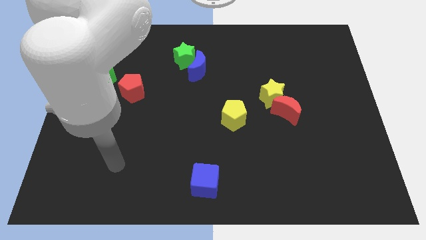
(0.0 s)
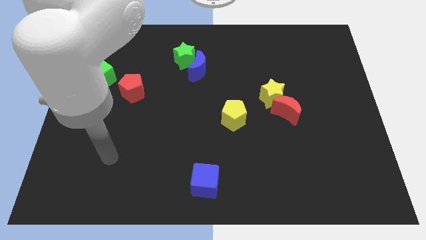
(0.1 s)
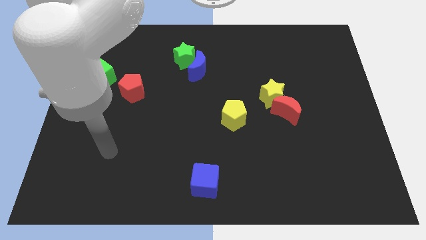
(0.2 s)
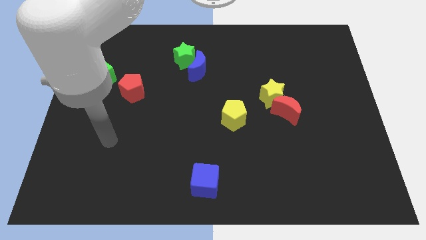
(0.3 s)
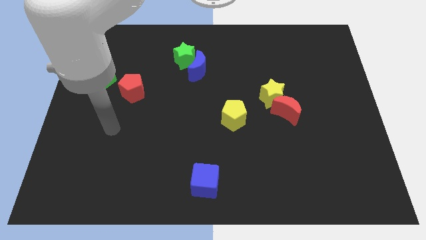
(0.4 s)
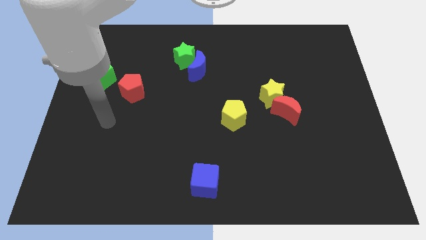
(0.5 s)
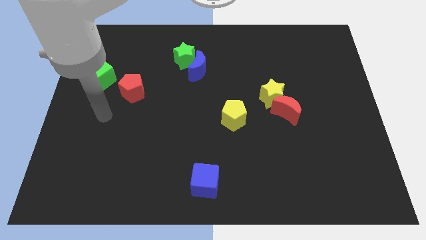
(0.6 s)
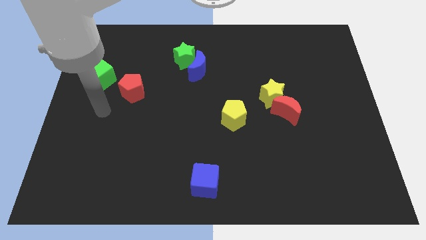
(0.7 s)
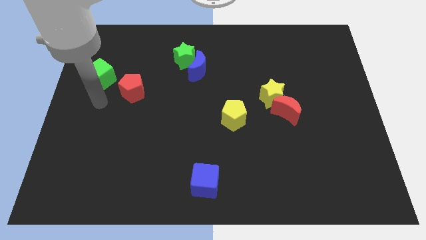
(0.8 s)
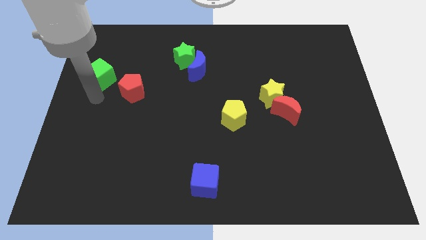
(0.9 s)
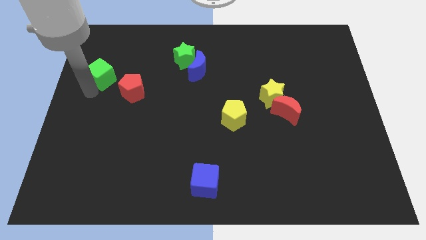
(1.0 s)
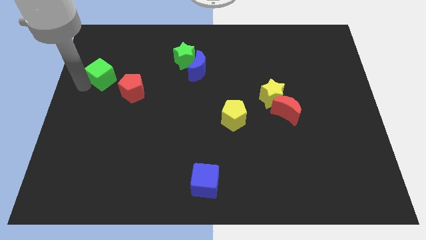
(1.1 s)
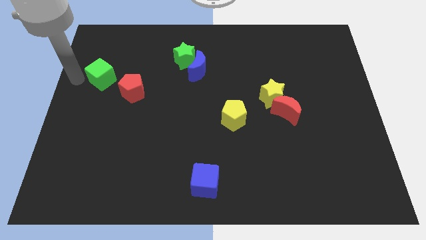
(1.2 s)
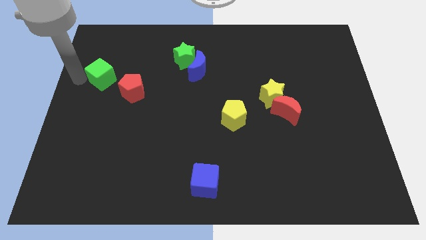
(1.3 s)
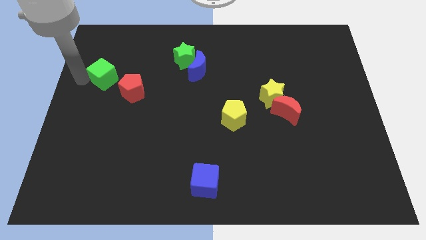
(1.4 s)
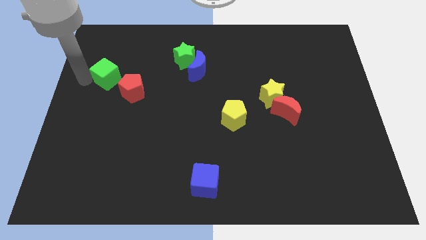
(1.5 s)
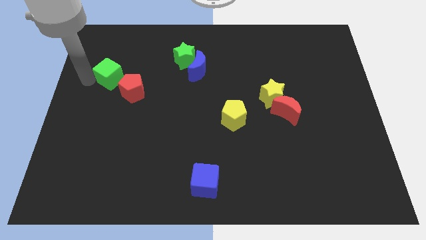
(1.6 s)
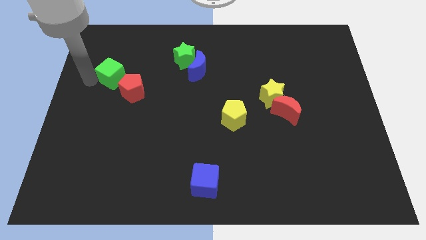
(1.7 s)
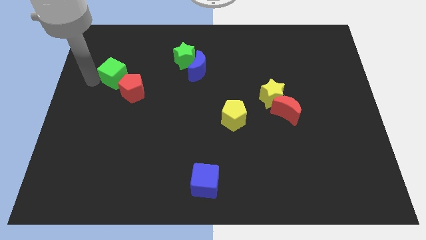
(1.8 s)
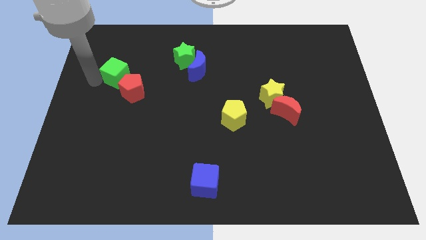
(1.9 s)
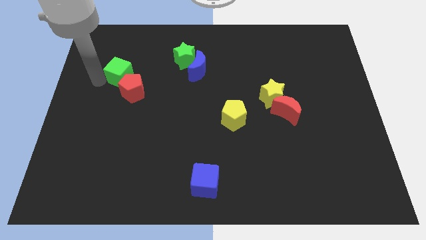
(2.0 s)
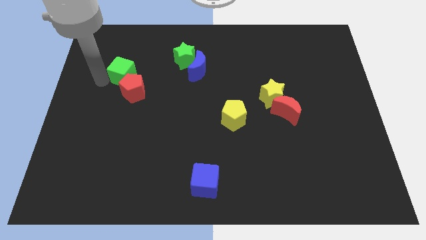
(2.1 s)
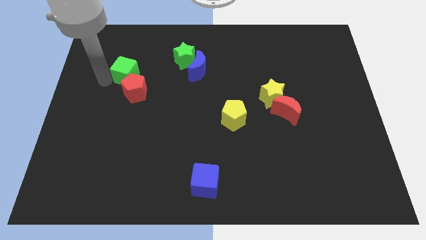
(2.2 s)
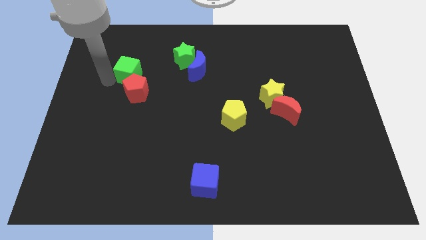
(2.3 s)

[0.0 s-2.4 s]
slightly move the green cube to the right

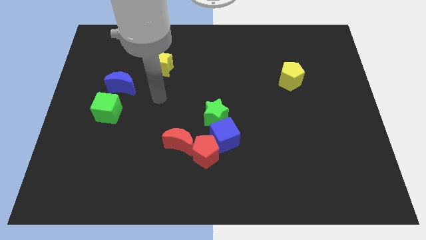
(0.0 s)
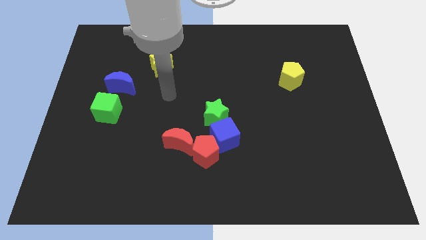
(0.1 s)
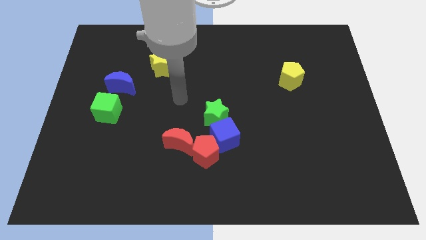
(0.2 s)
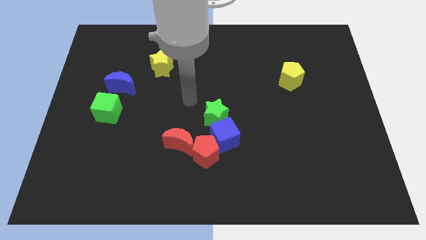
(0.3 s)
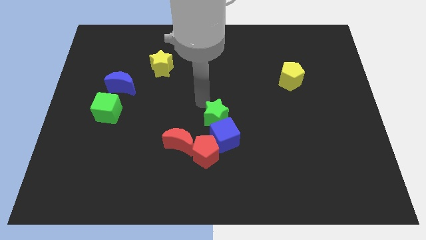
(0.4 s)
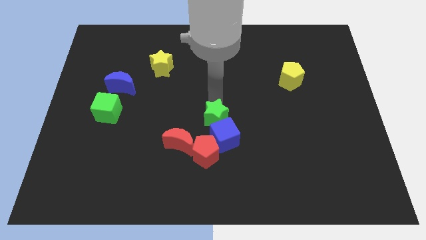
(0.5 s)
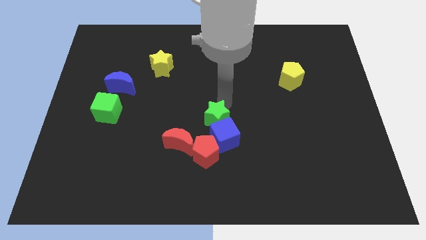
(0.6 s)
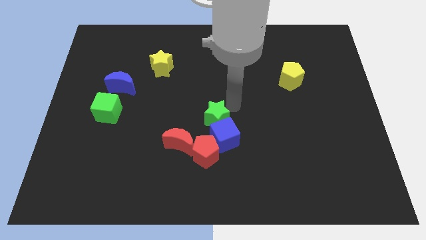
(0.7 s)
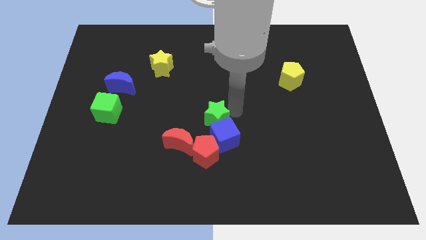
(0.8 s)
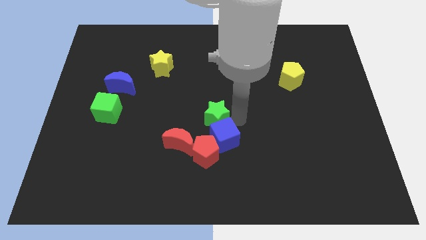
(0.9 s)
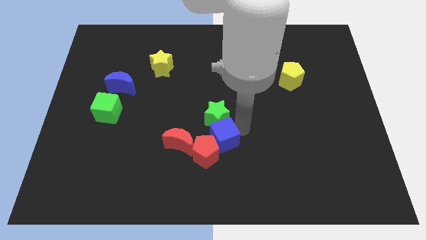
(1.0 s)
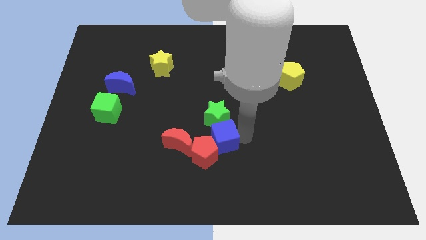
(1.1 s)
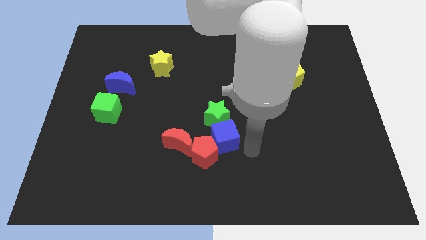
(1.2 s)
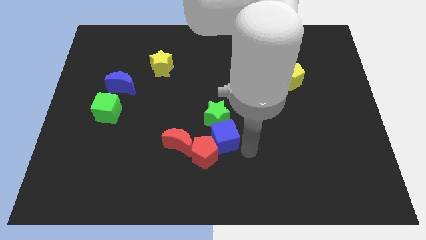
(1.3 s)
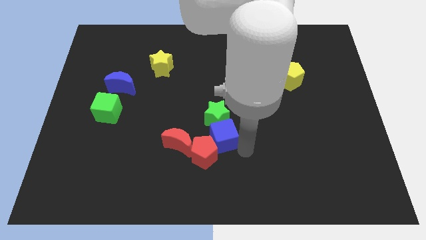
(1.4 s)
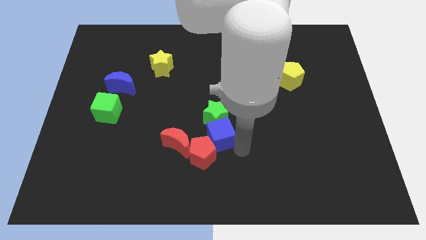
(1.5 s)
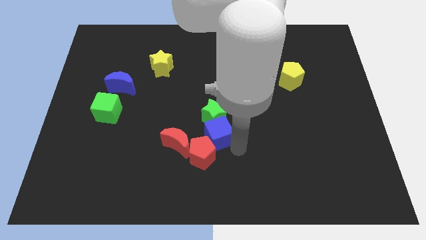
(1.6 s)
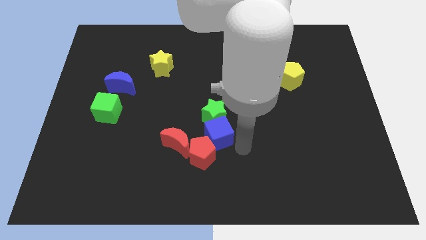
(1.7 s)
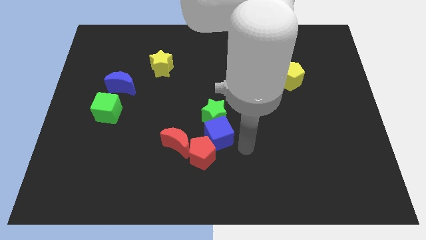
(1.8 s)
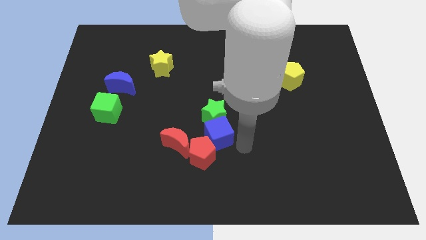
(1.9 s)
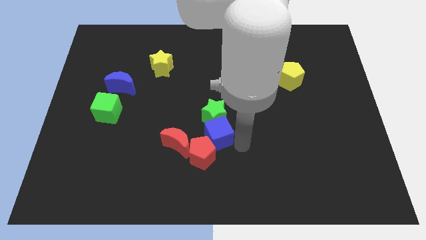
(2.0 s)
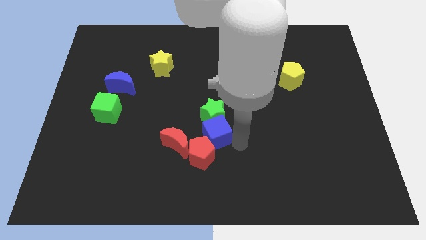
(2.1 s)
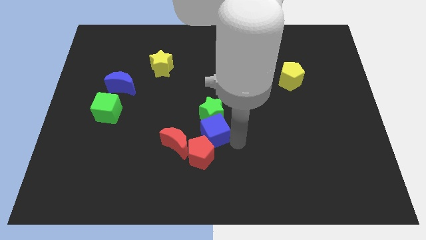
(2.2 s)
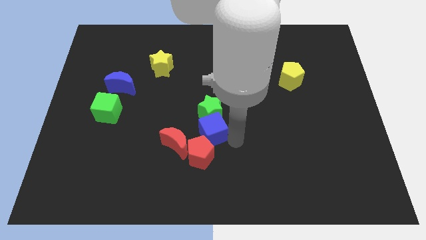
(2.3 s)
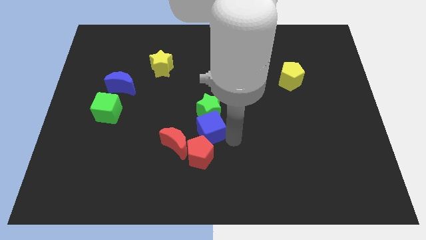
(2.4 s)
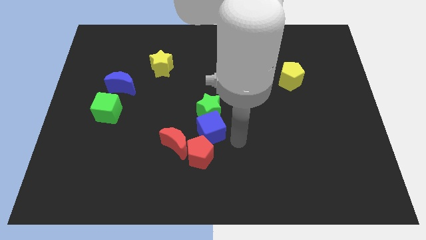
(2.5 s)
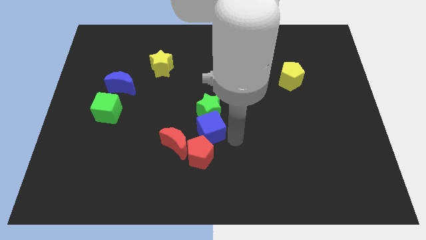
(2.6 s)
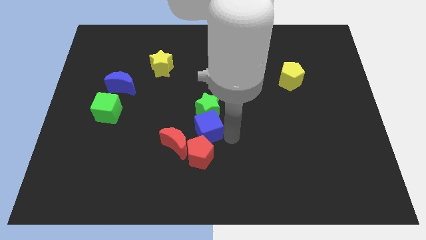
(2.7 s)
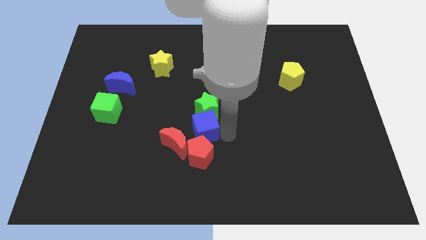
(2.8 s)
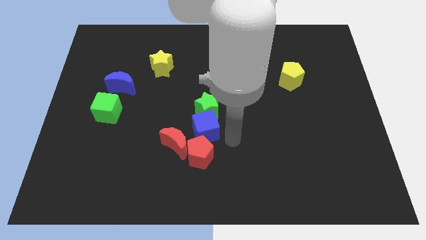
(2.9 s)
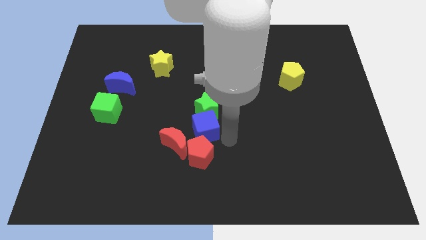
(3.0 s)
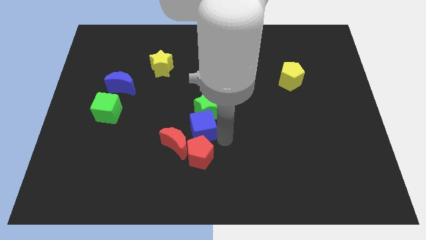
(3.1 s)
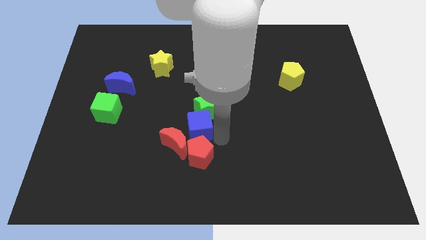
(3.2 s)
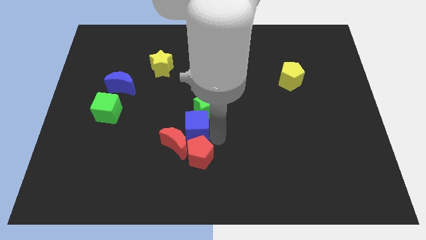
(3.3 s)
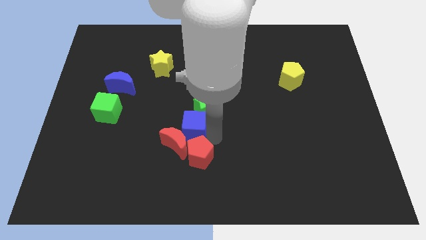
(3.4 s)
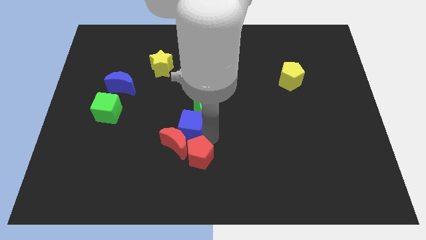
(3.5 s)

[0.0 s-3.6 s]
move the blue cube left somewhat

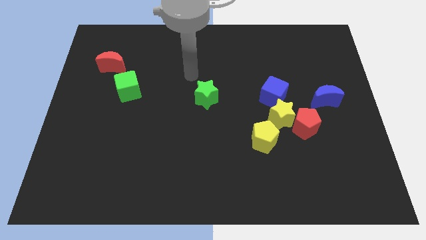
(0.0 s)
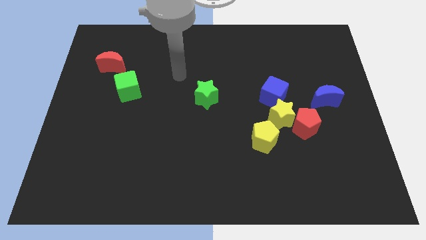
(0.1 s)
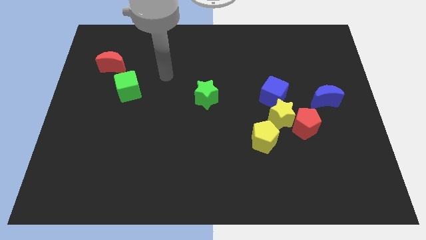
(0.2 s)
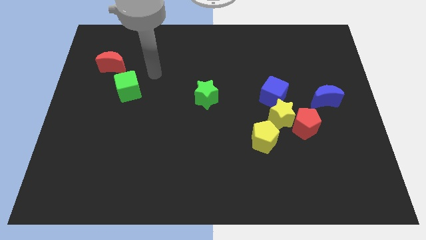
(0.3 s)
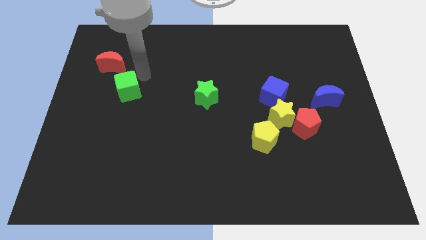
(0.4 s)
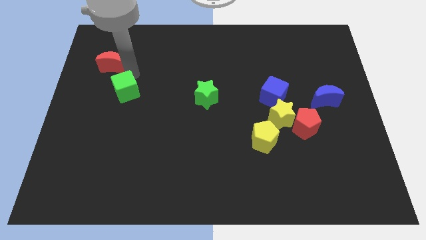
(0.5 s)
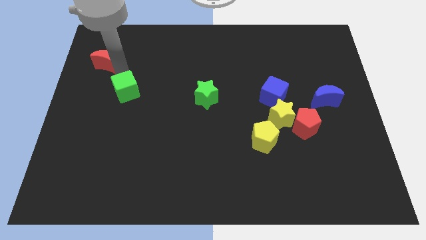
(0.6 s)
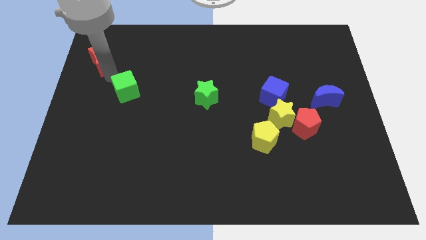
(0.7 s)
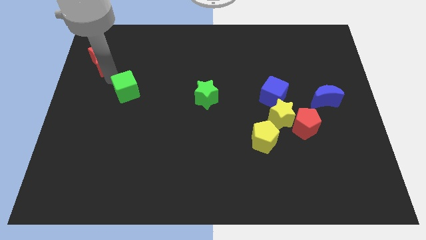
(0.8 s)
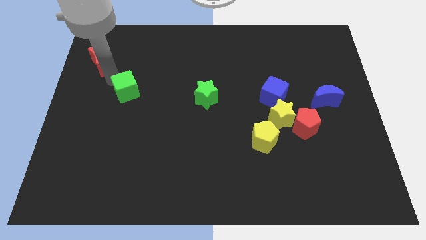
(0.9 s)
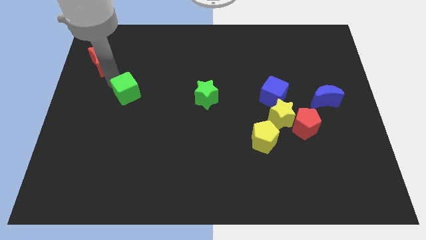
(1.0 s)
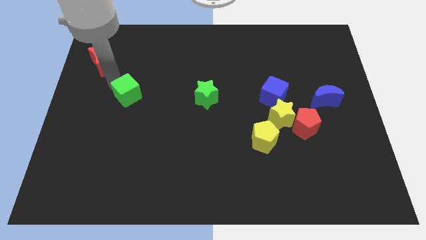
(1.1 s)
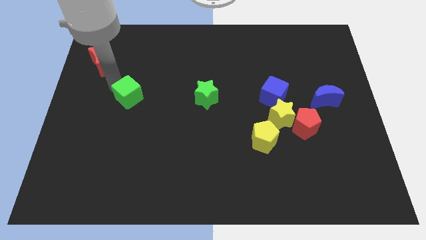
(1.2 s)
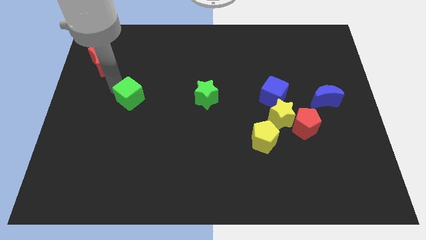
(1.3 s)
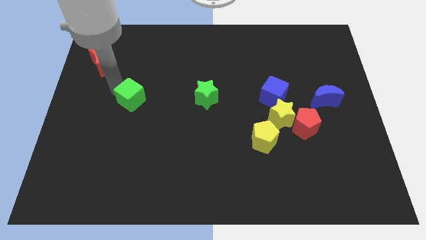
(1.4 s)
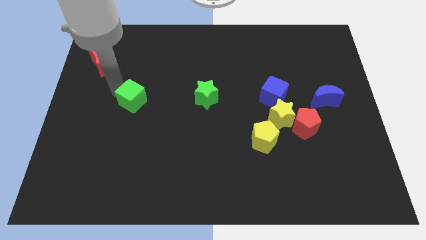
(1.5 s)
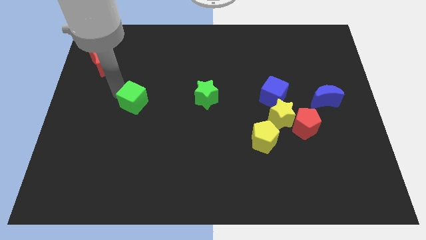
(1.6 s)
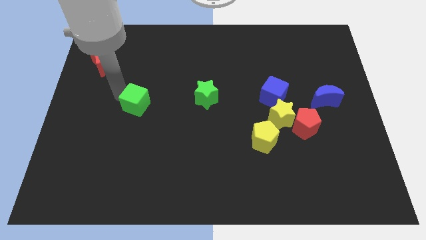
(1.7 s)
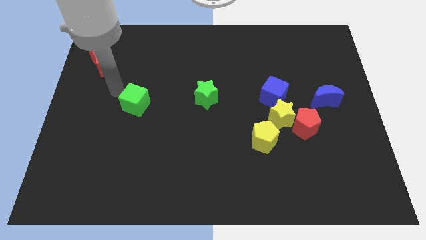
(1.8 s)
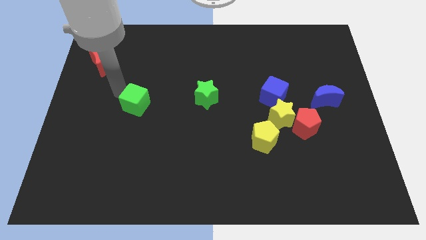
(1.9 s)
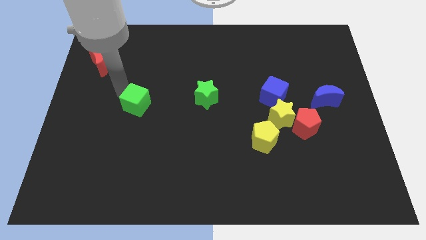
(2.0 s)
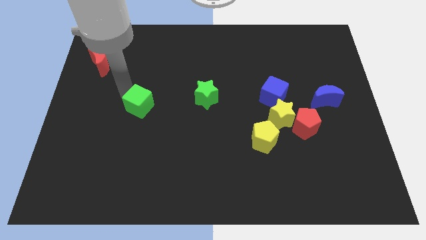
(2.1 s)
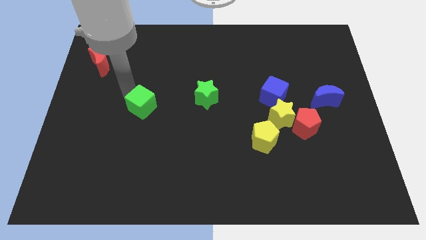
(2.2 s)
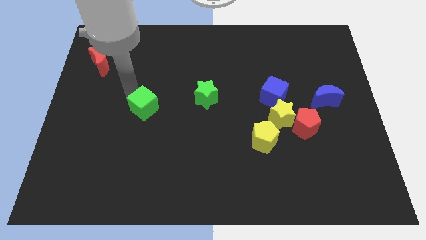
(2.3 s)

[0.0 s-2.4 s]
move the green cube down and to the right somewhat

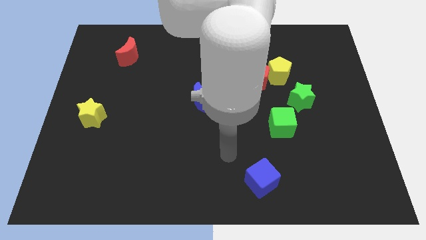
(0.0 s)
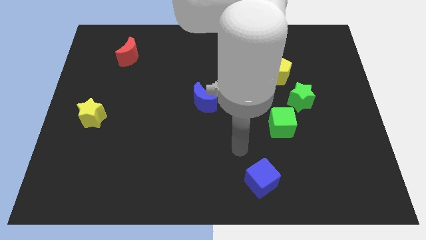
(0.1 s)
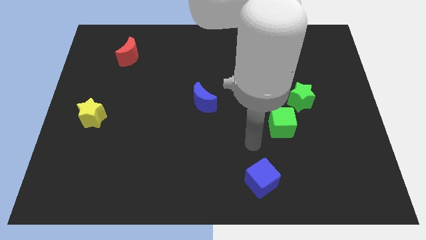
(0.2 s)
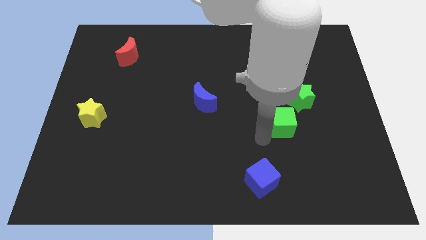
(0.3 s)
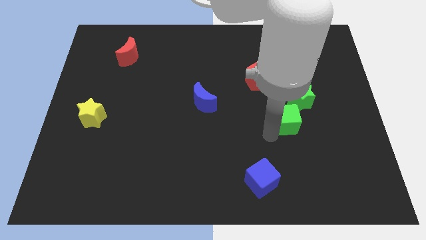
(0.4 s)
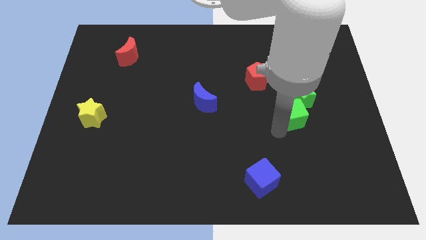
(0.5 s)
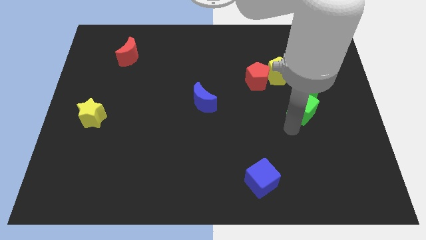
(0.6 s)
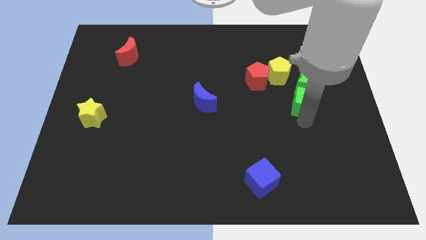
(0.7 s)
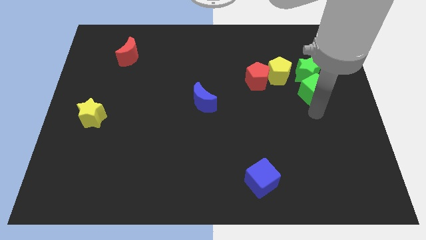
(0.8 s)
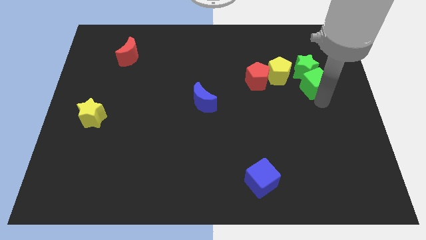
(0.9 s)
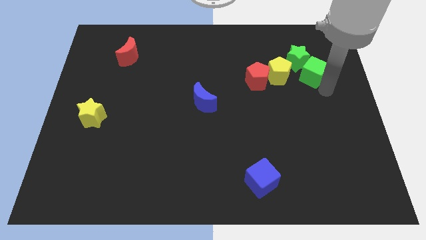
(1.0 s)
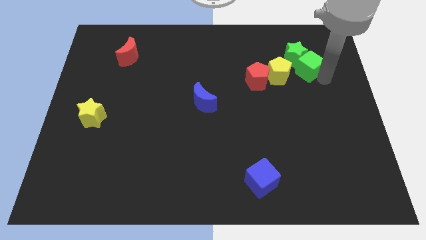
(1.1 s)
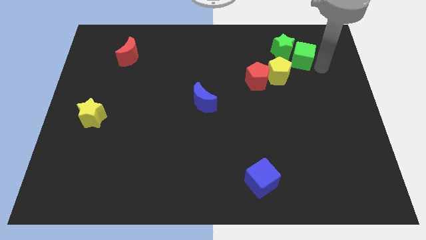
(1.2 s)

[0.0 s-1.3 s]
slightly move the green star diagonally upwards and to the left
